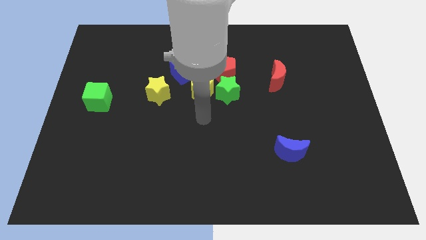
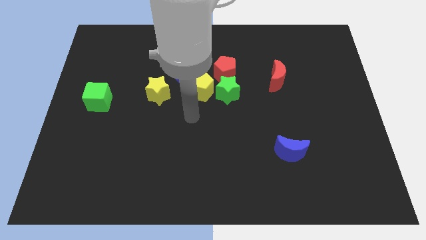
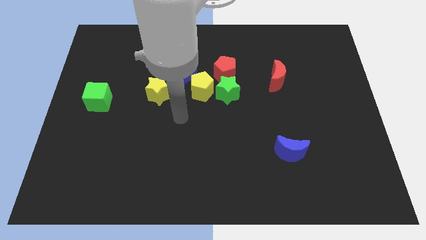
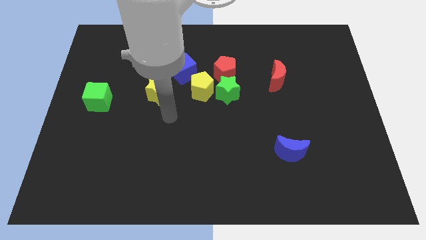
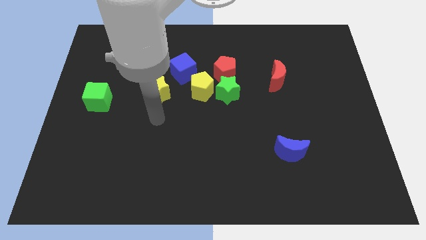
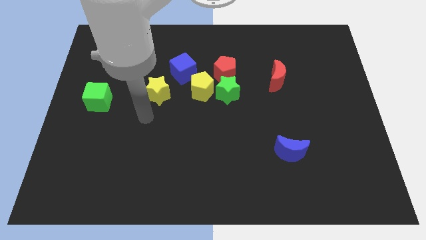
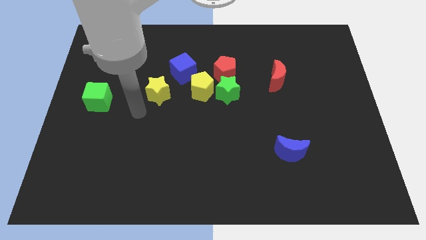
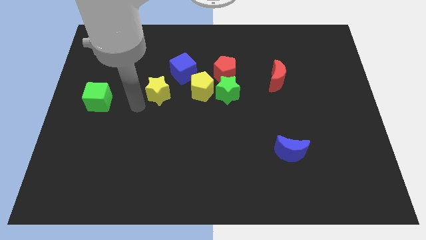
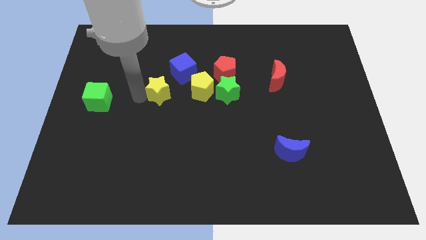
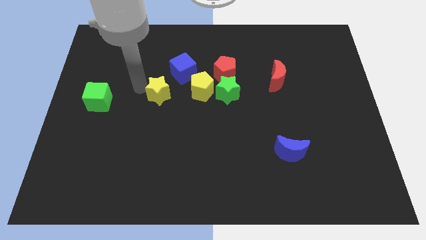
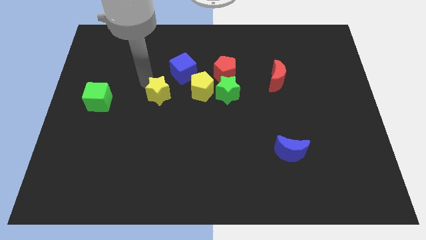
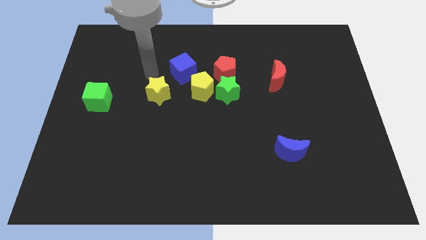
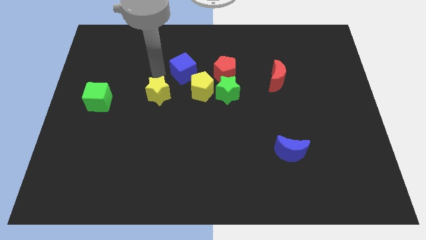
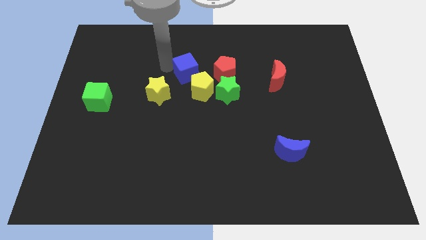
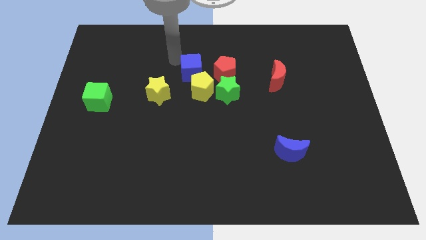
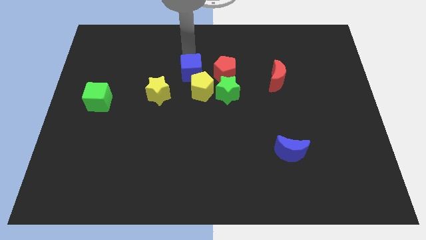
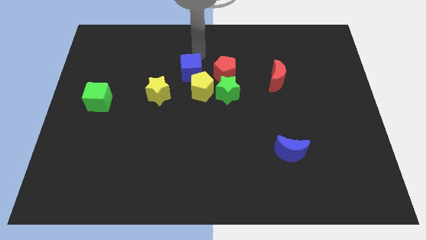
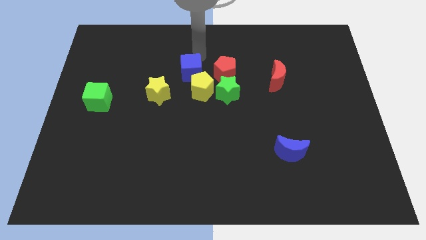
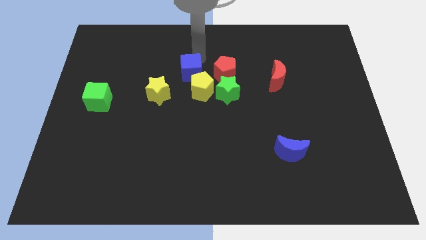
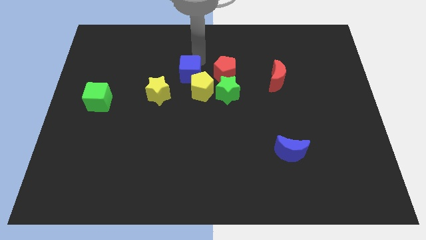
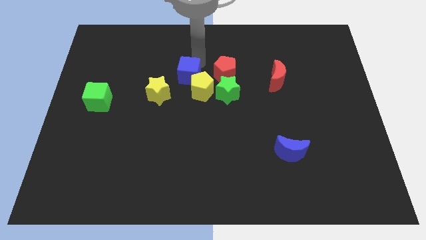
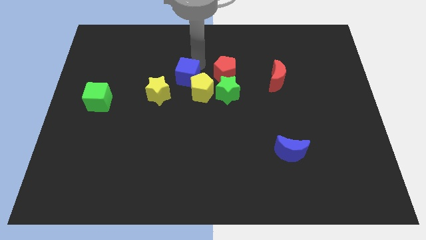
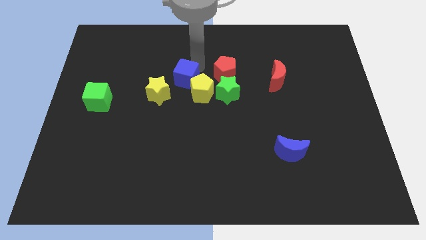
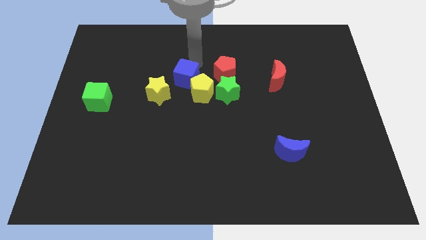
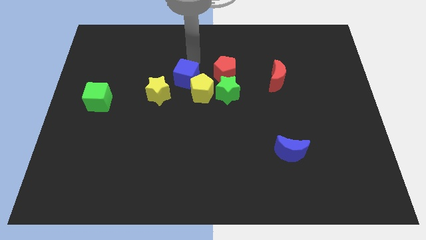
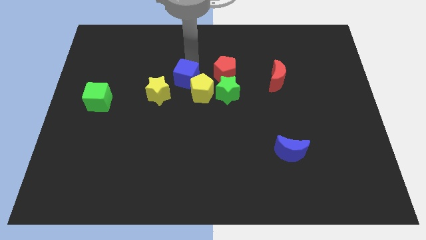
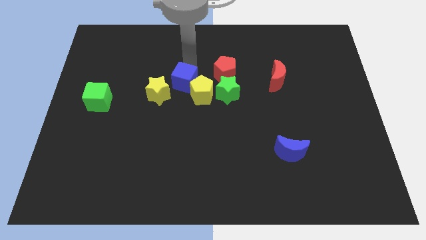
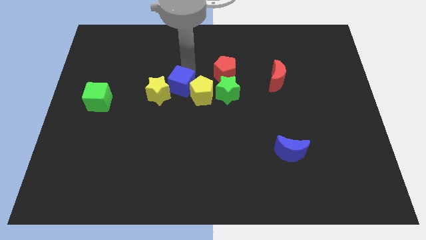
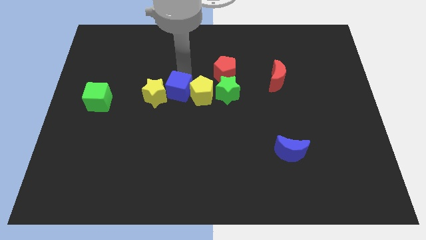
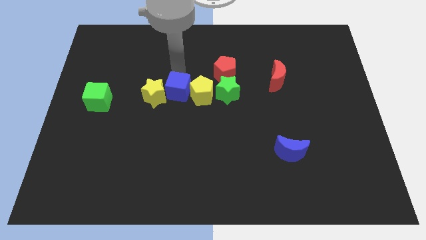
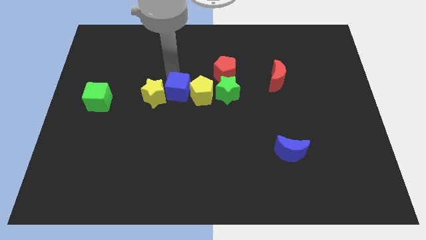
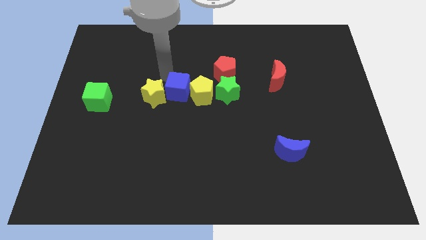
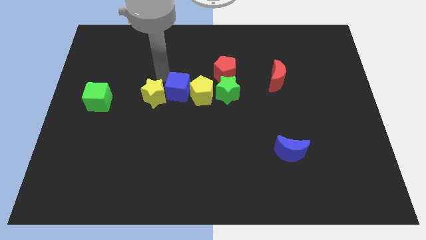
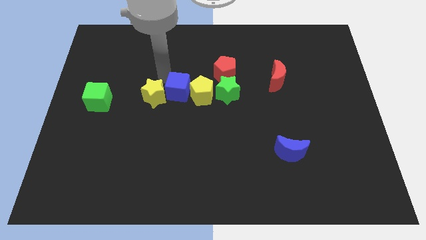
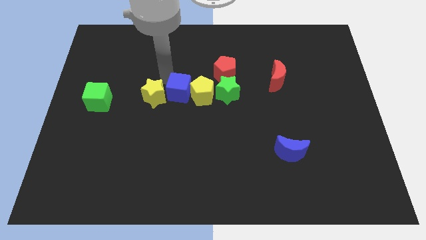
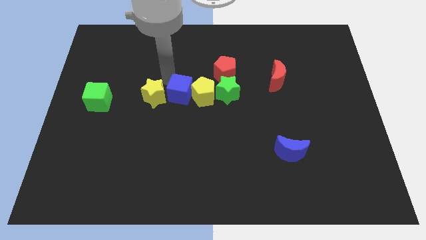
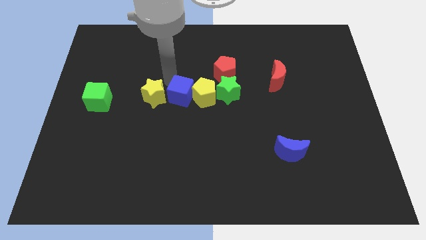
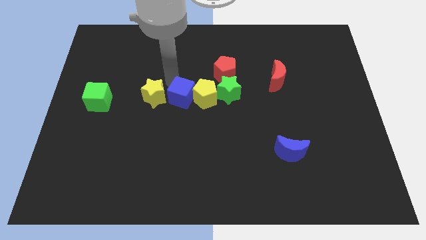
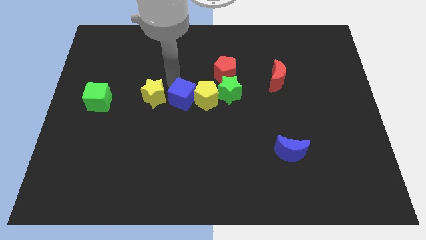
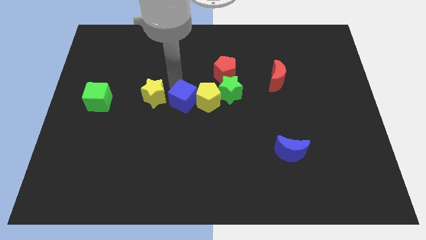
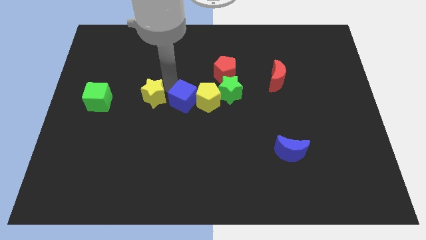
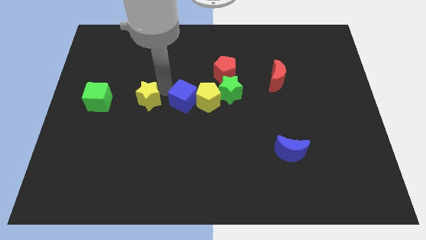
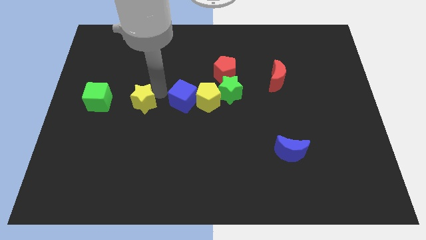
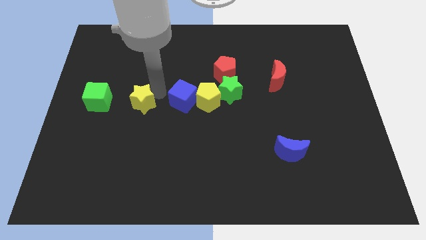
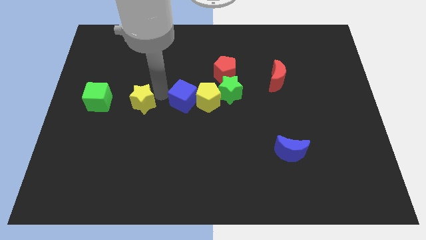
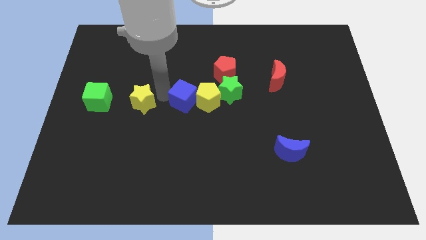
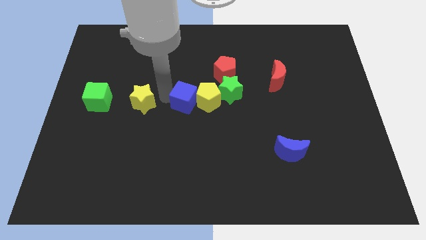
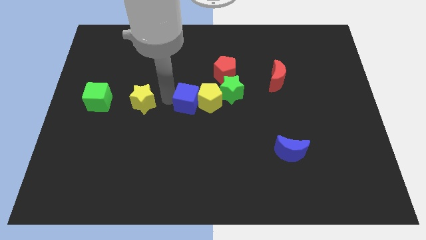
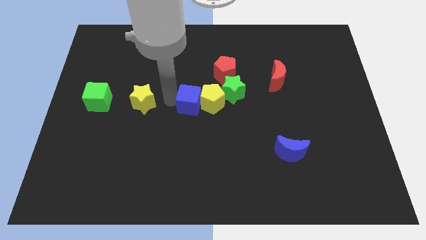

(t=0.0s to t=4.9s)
slightly move the blue cube downwards and to the right

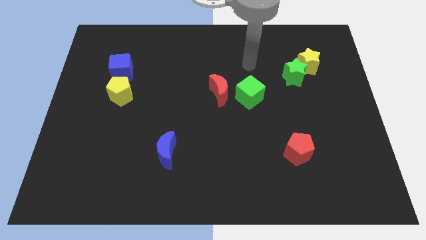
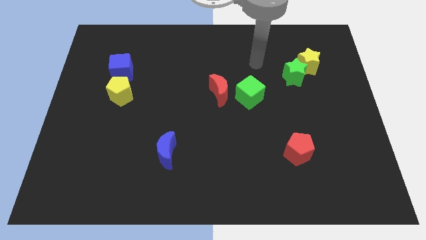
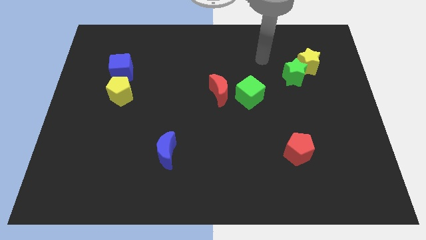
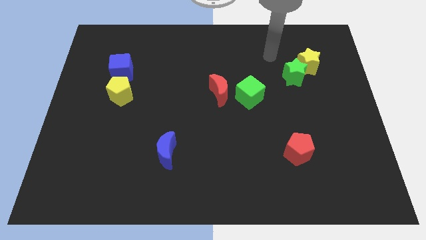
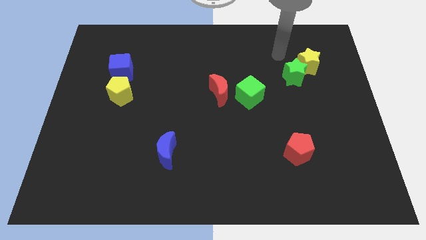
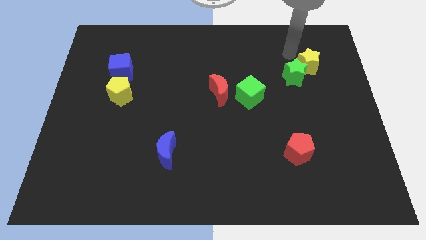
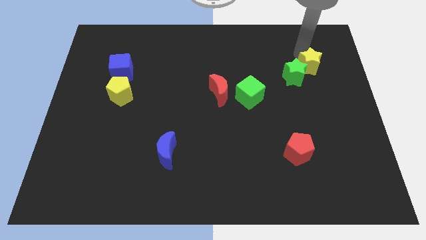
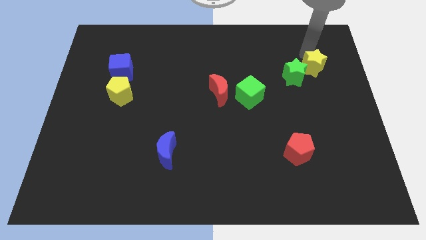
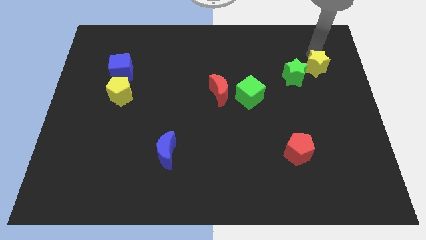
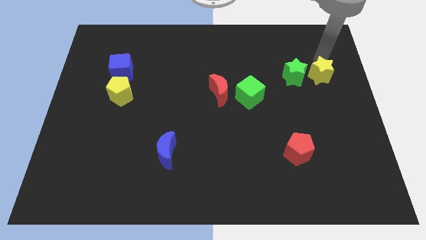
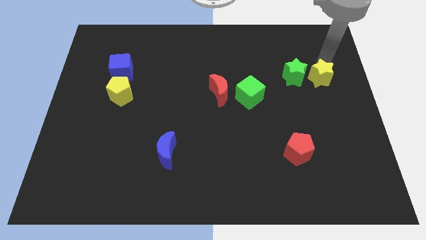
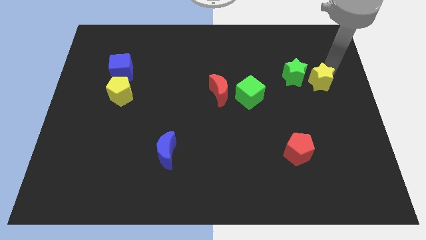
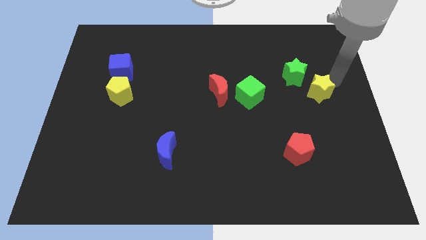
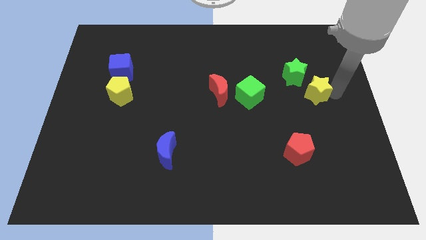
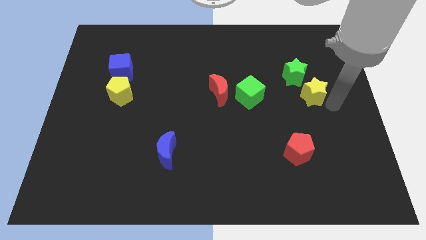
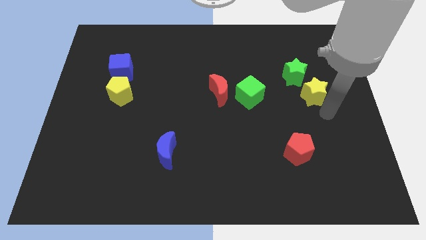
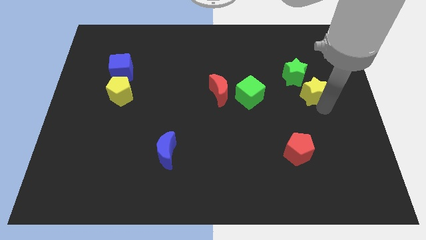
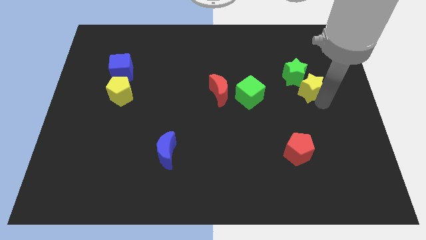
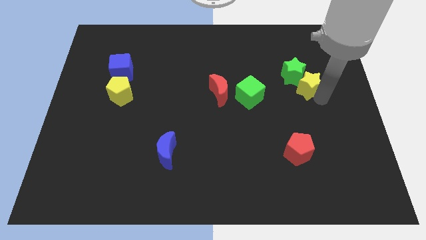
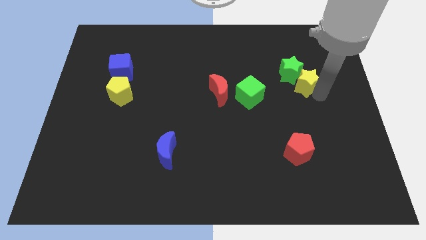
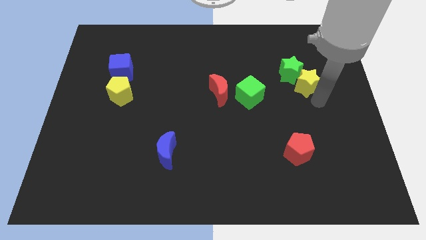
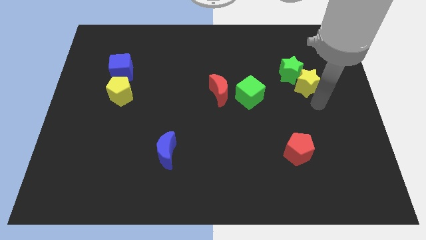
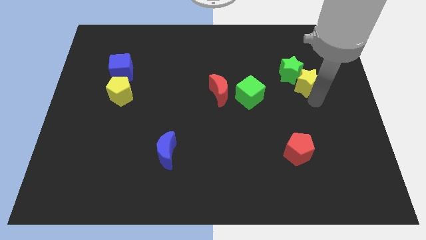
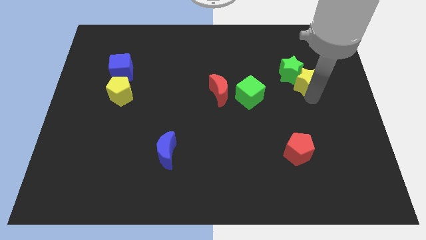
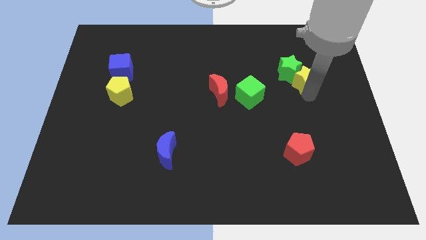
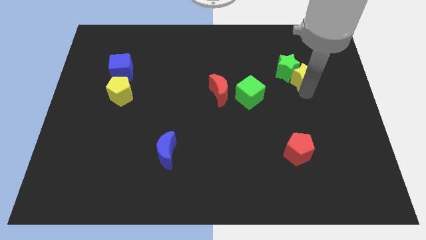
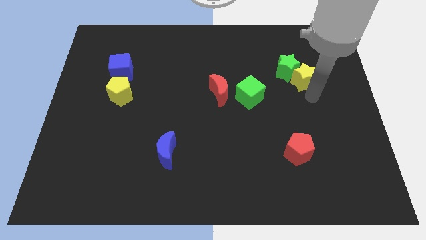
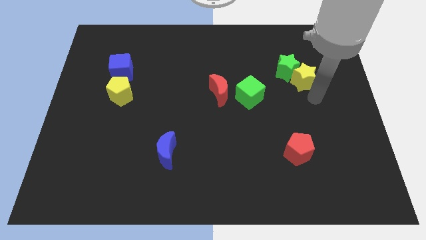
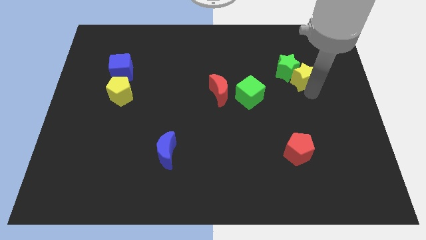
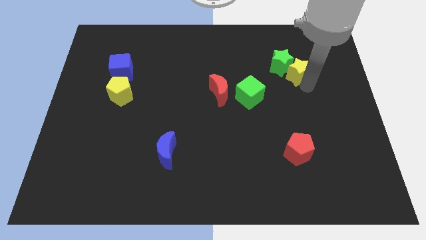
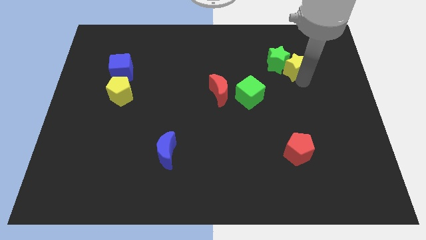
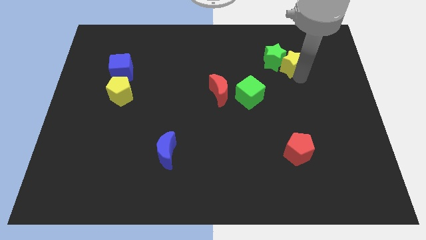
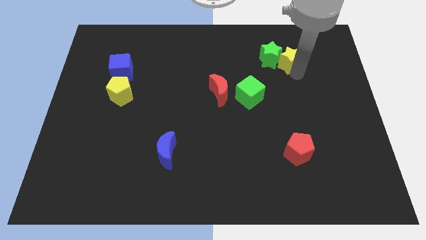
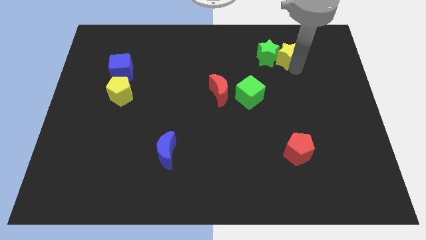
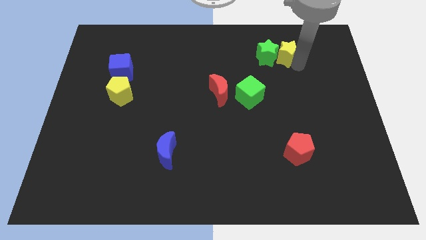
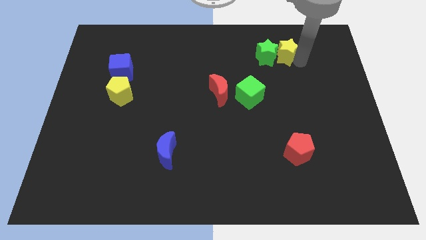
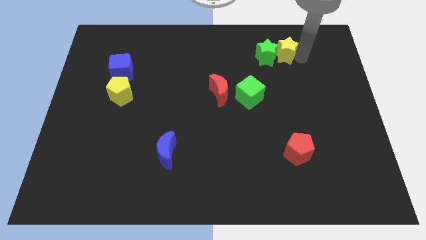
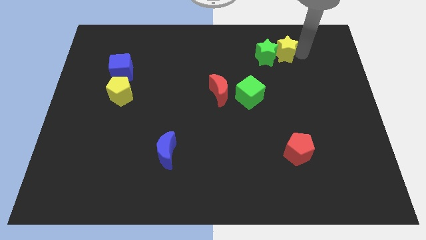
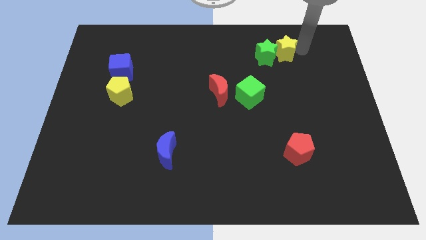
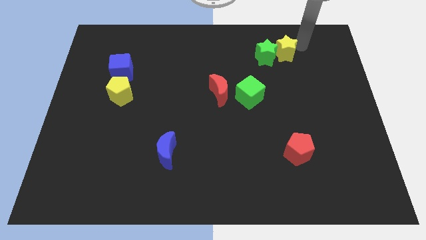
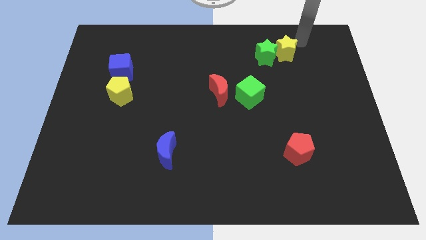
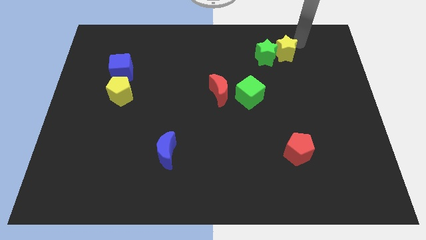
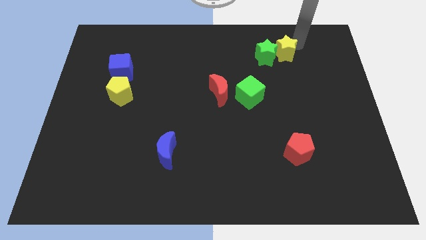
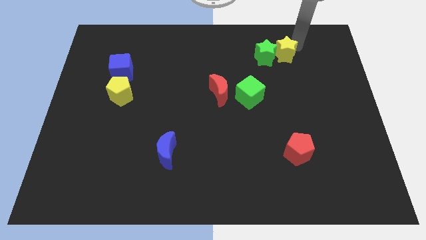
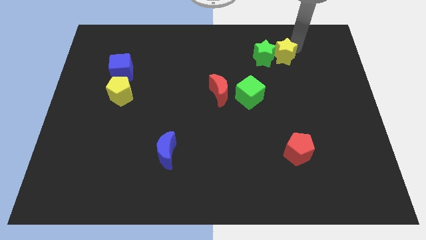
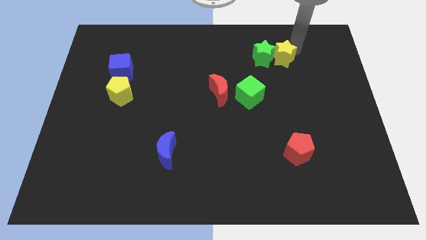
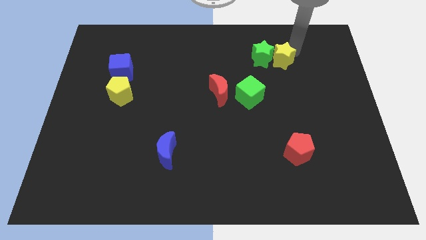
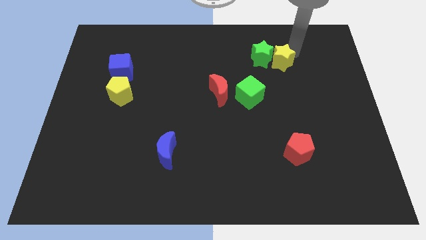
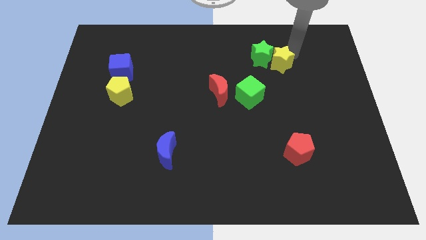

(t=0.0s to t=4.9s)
slightly push the yellow star to the left
